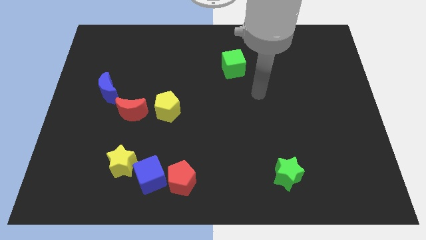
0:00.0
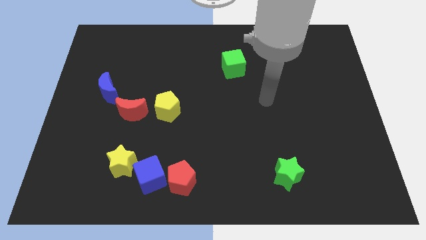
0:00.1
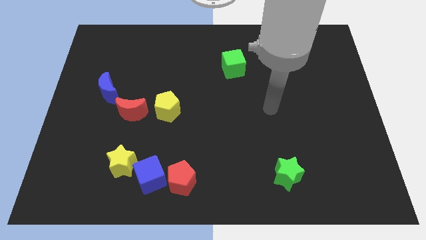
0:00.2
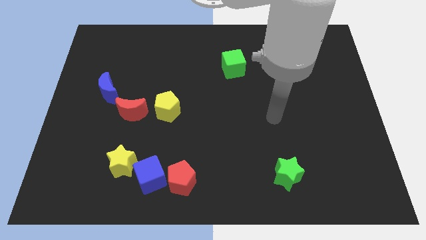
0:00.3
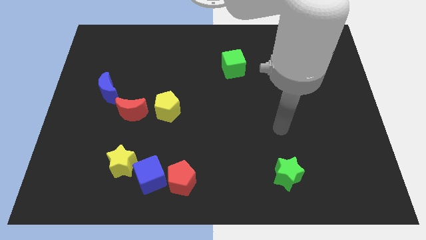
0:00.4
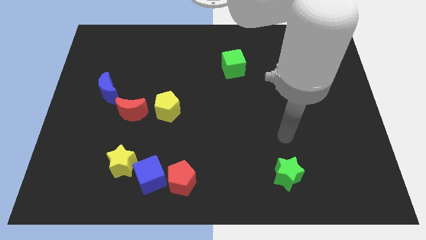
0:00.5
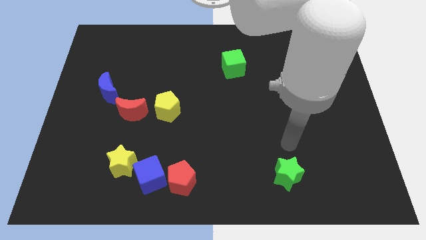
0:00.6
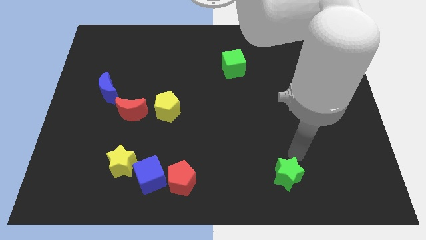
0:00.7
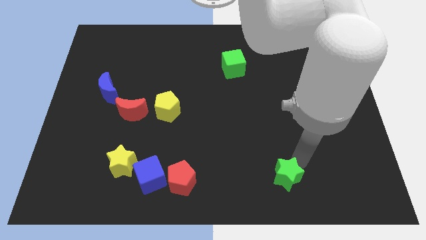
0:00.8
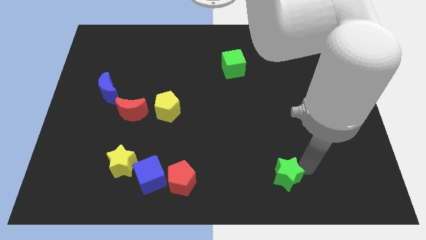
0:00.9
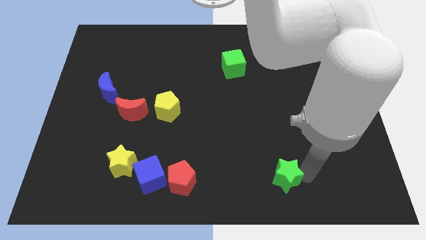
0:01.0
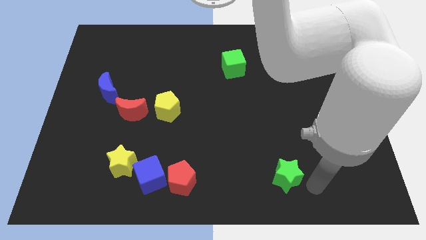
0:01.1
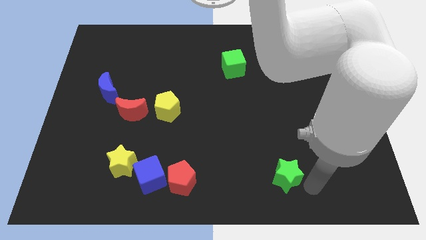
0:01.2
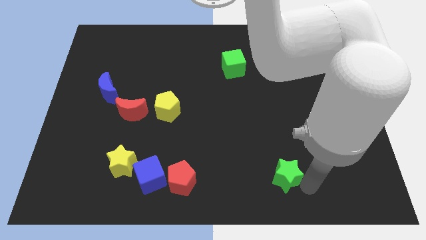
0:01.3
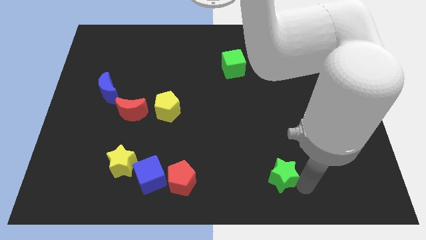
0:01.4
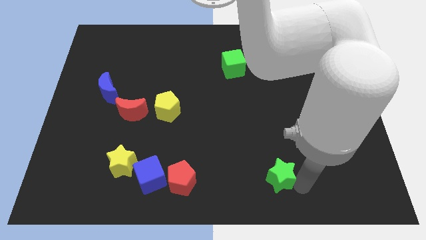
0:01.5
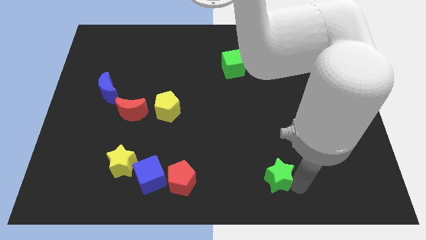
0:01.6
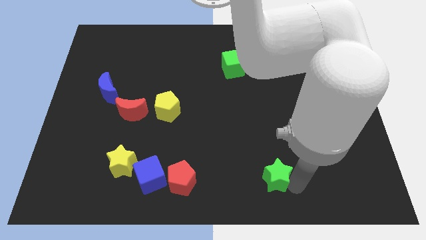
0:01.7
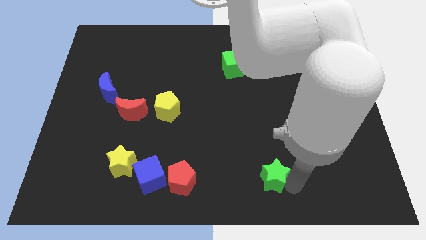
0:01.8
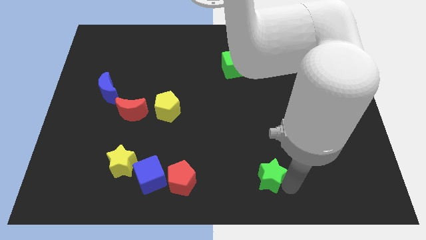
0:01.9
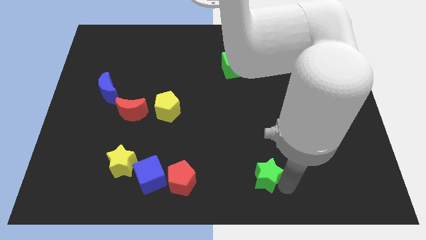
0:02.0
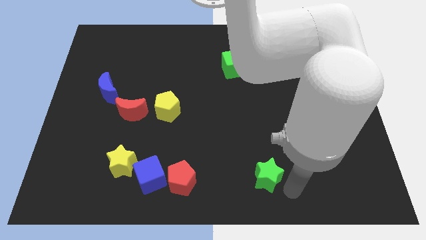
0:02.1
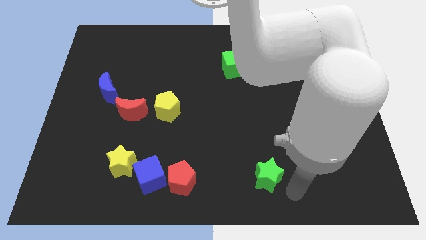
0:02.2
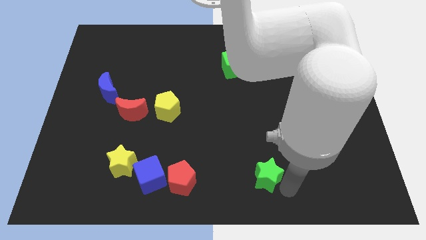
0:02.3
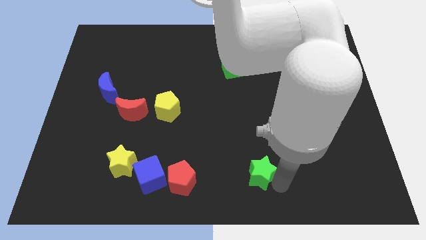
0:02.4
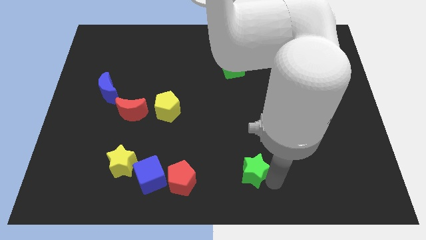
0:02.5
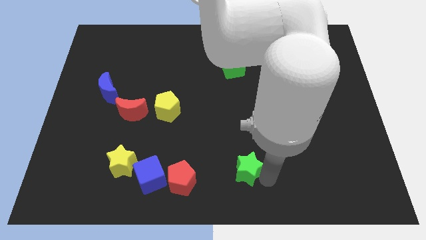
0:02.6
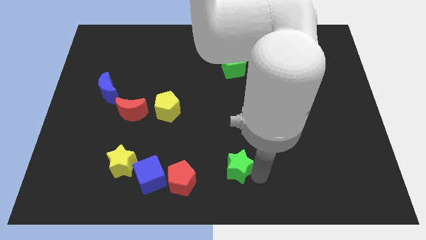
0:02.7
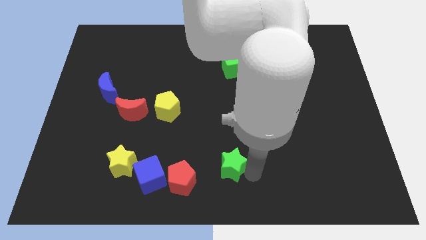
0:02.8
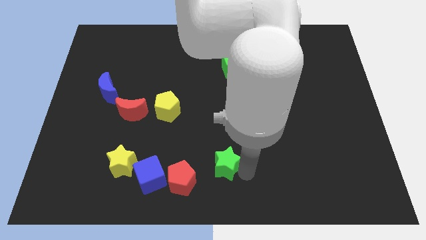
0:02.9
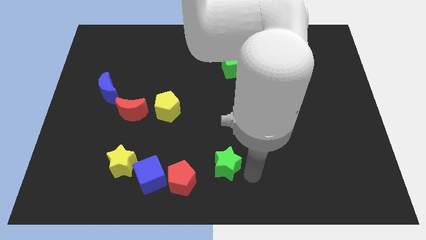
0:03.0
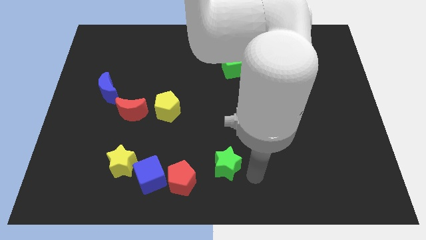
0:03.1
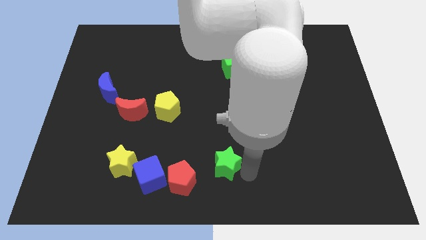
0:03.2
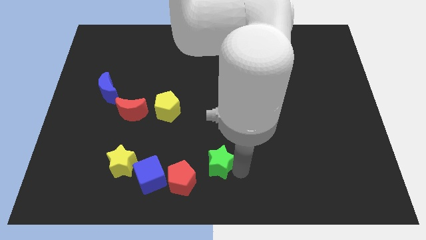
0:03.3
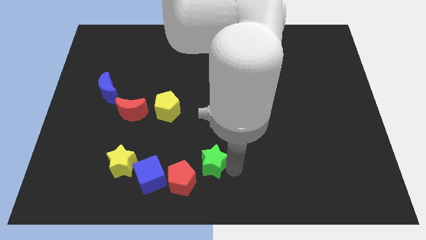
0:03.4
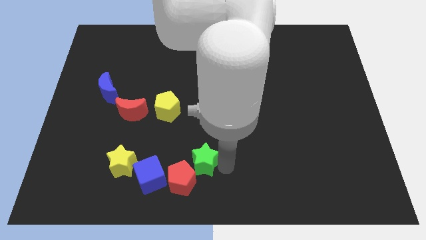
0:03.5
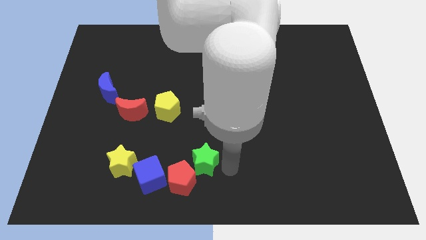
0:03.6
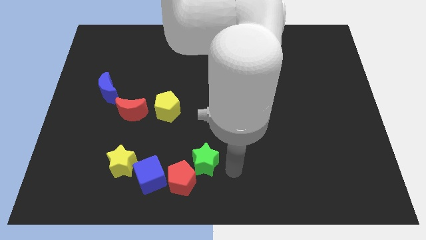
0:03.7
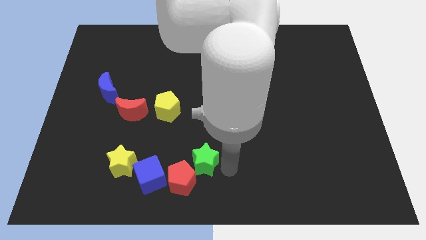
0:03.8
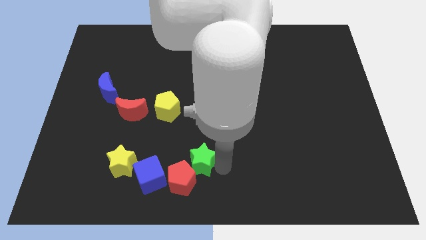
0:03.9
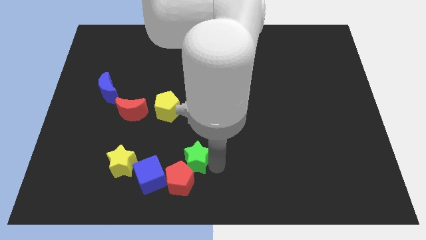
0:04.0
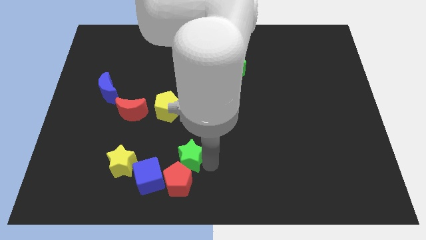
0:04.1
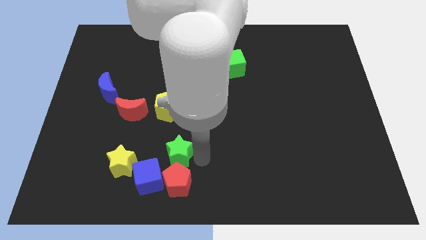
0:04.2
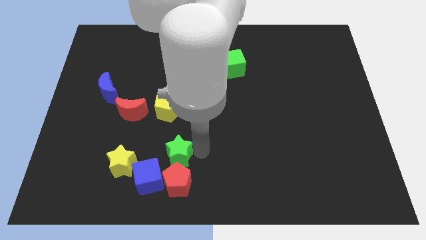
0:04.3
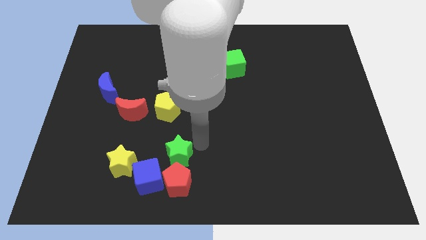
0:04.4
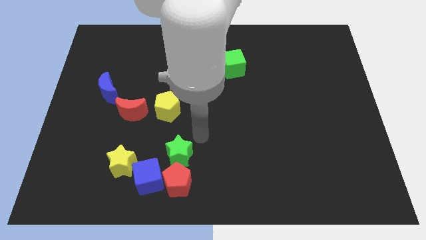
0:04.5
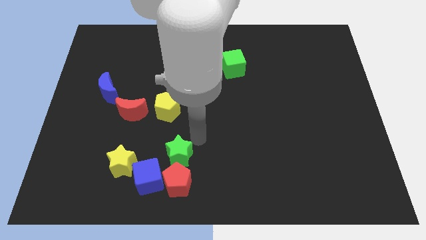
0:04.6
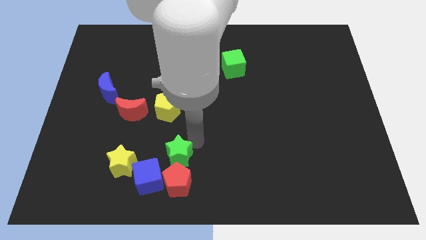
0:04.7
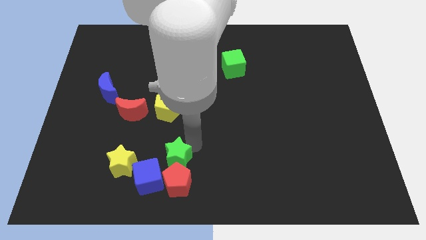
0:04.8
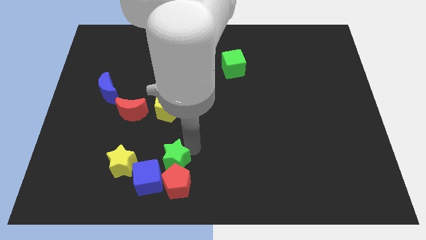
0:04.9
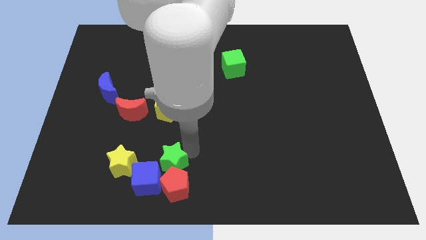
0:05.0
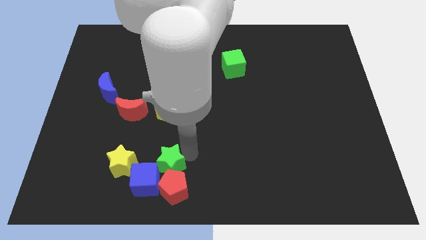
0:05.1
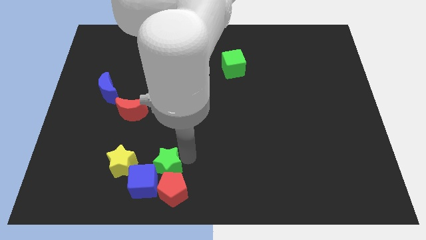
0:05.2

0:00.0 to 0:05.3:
slide the green star to the blue cube

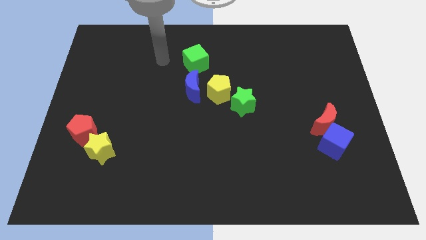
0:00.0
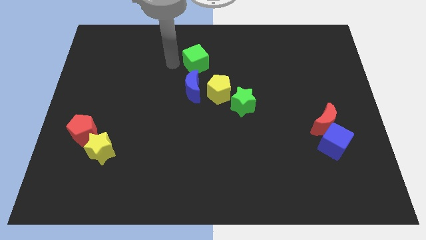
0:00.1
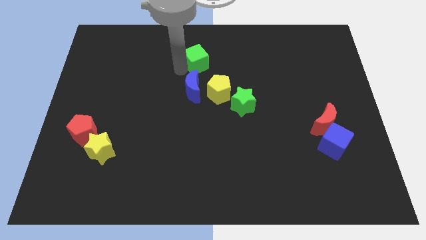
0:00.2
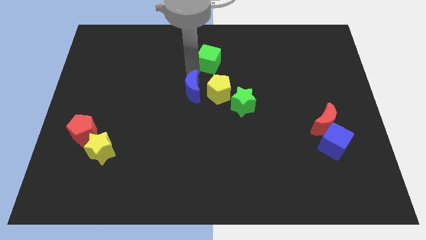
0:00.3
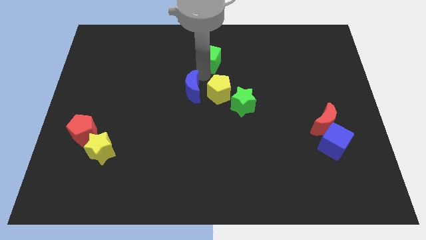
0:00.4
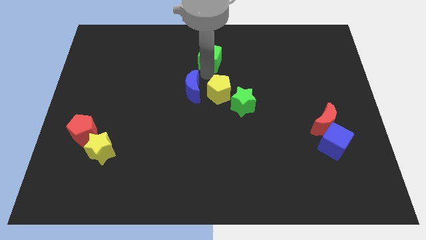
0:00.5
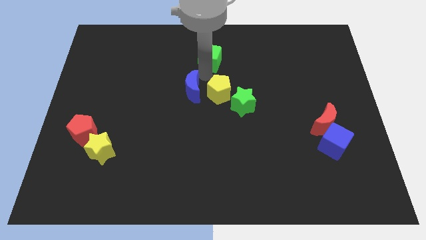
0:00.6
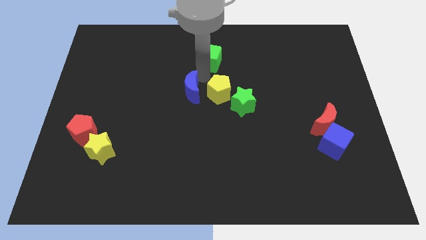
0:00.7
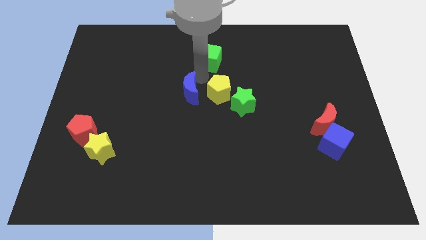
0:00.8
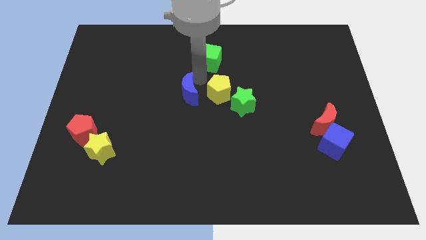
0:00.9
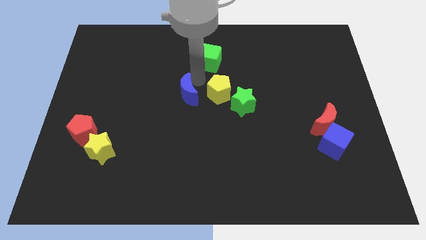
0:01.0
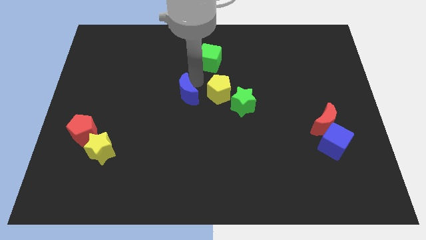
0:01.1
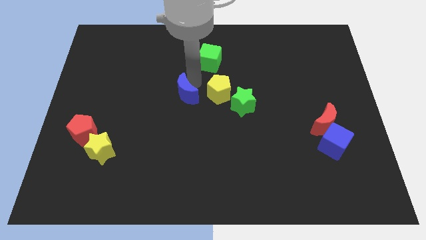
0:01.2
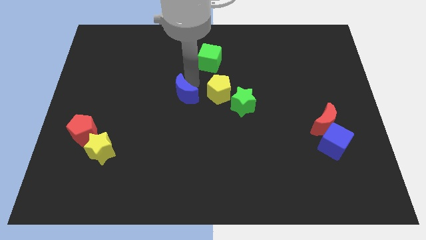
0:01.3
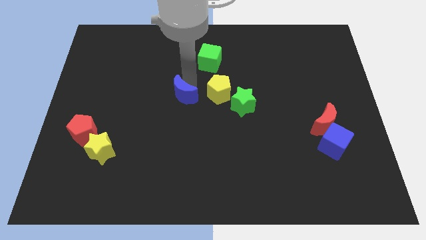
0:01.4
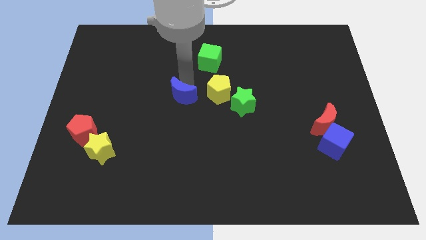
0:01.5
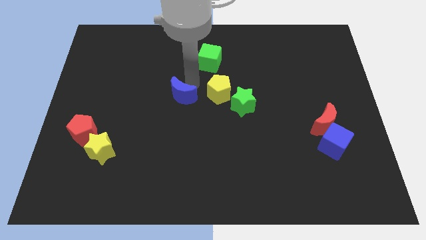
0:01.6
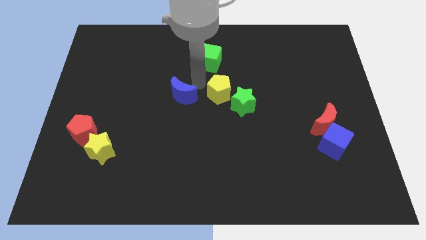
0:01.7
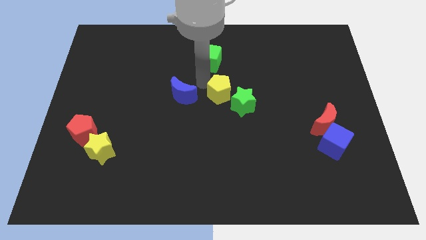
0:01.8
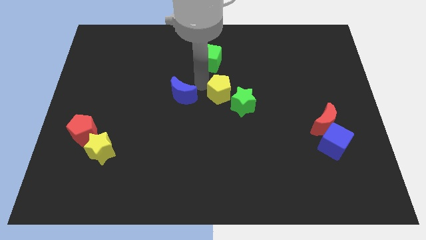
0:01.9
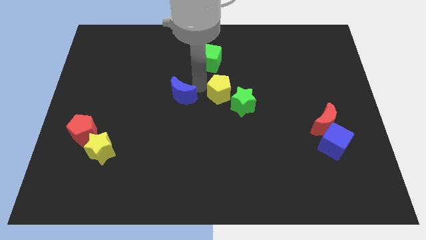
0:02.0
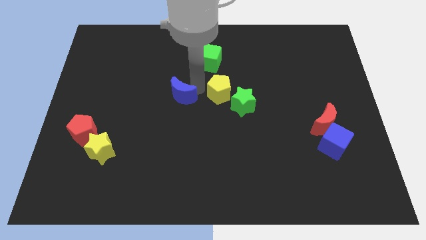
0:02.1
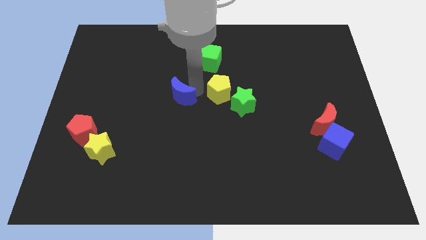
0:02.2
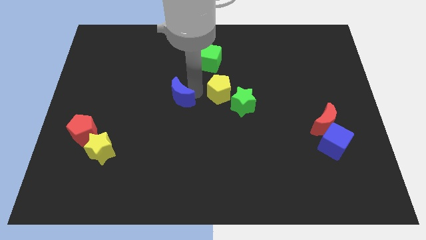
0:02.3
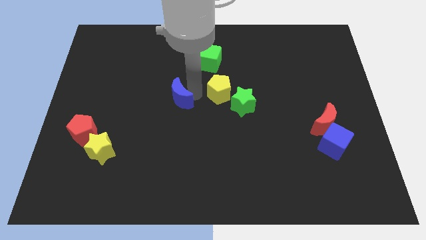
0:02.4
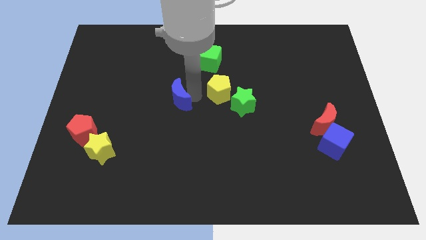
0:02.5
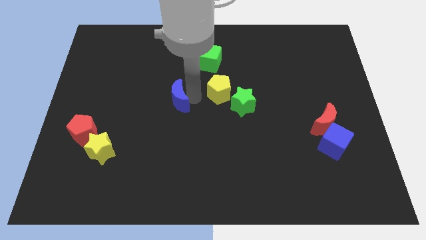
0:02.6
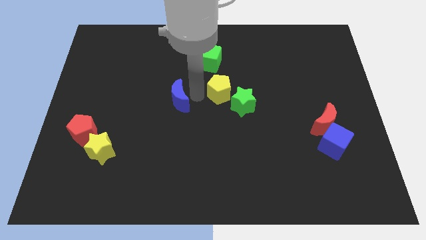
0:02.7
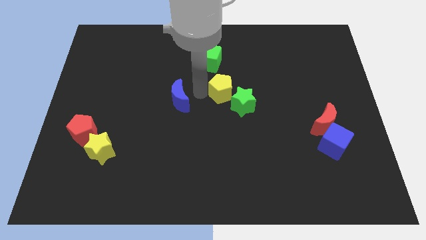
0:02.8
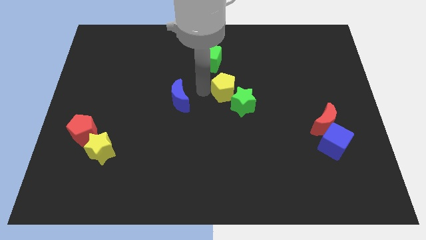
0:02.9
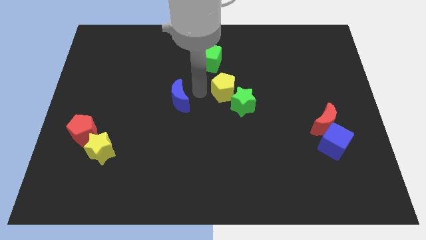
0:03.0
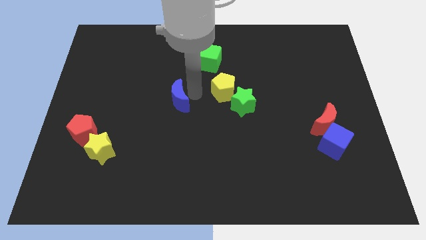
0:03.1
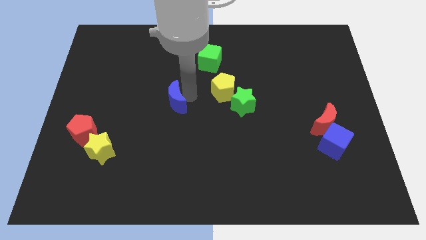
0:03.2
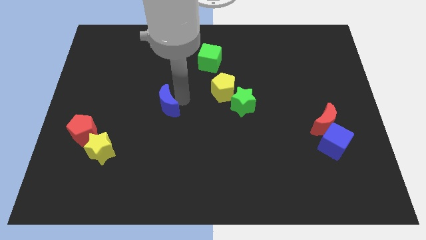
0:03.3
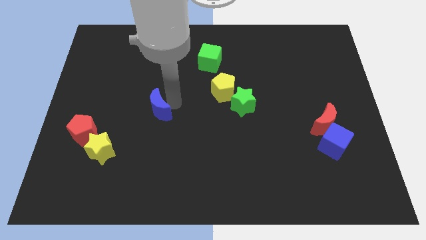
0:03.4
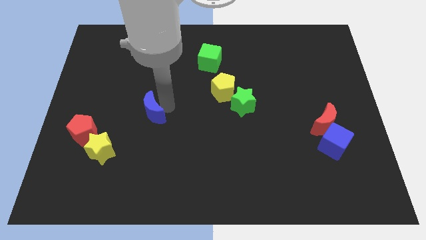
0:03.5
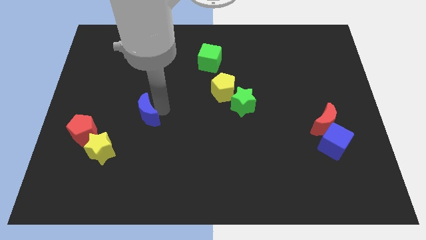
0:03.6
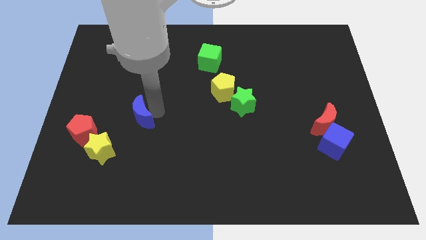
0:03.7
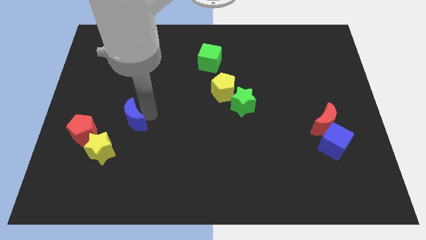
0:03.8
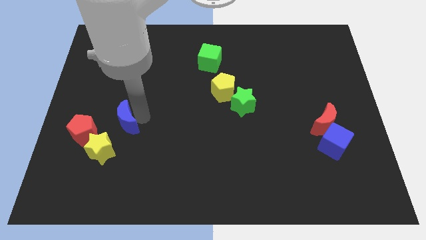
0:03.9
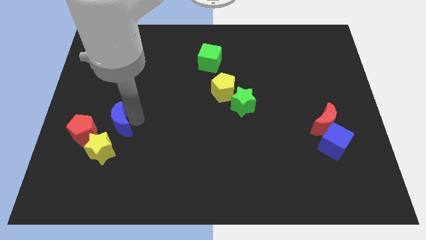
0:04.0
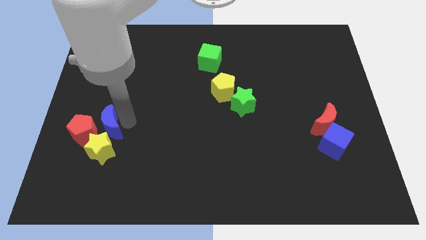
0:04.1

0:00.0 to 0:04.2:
slide the blue moon close to the red pentagon
